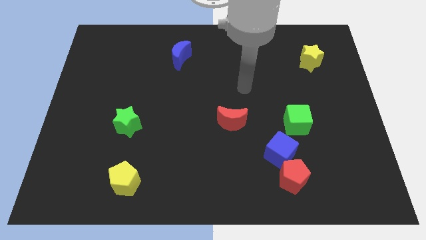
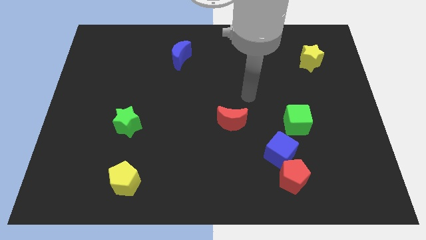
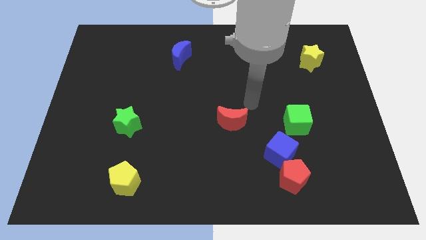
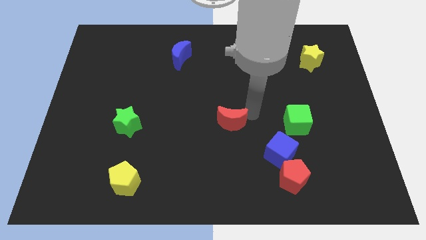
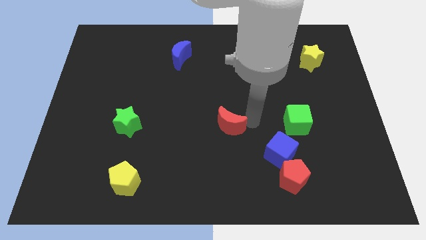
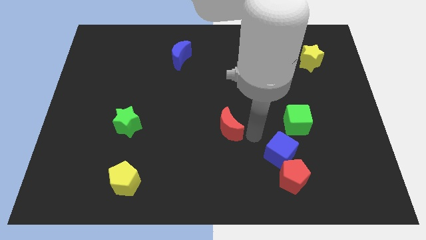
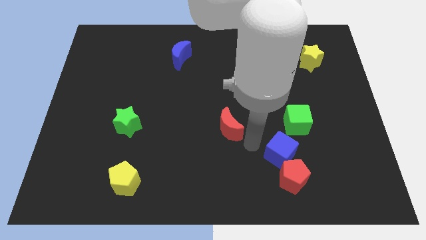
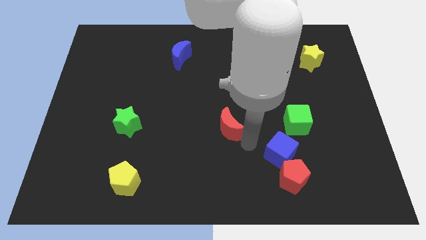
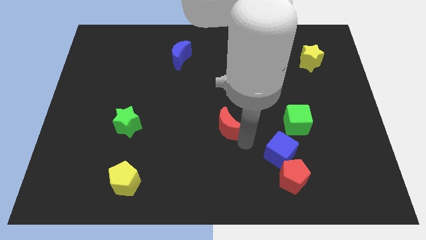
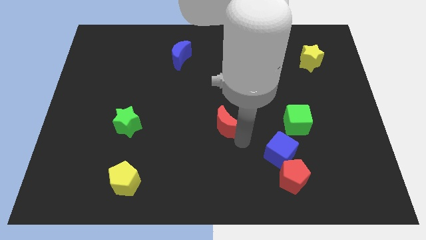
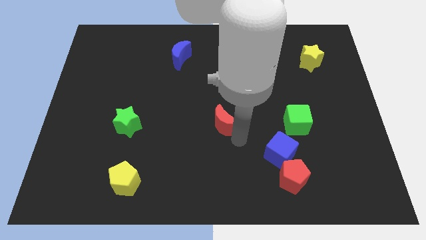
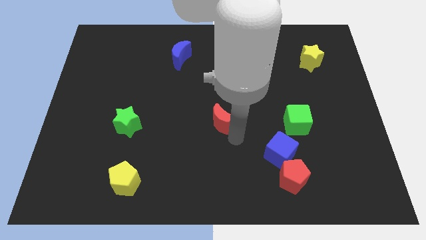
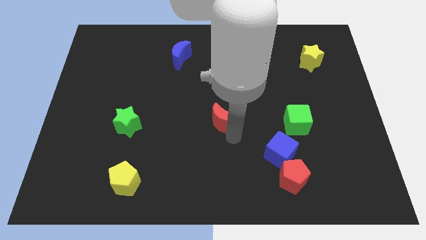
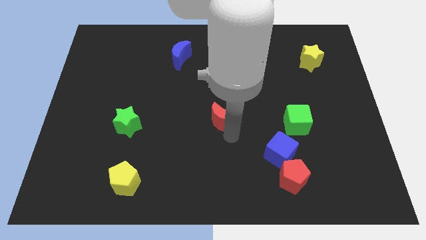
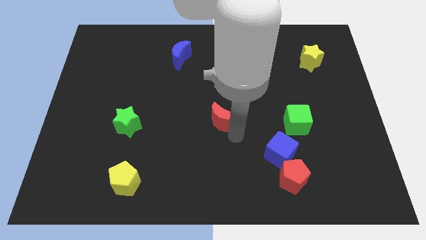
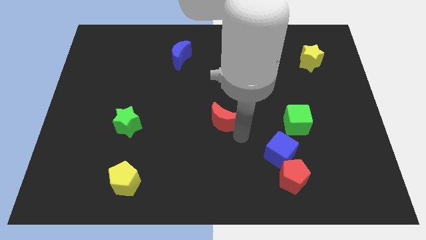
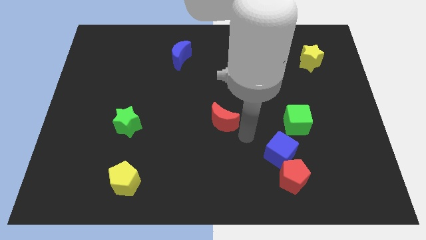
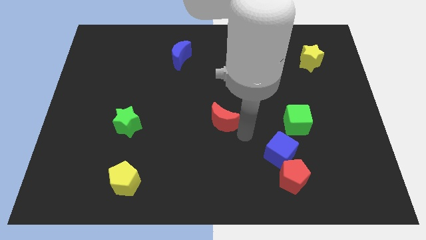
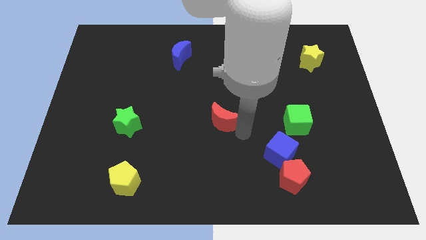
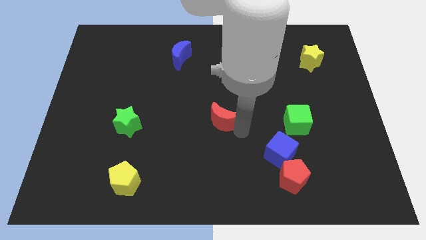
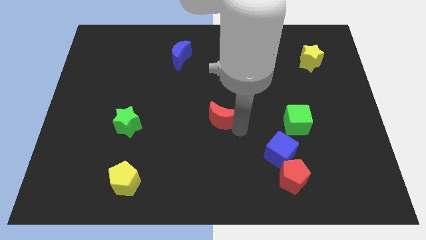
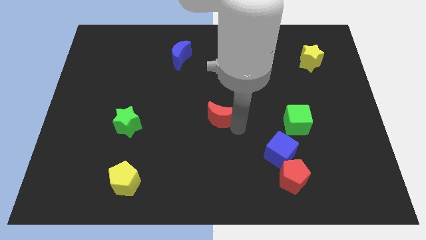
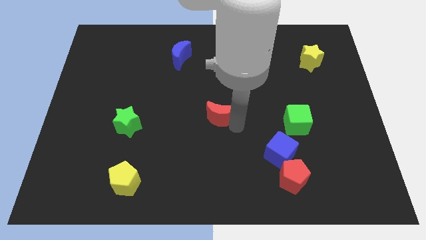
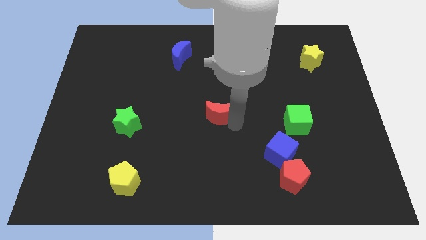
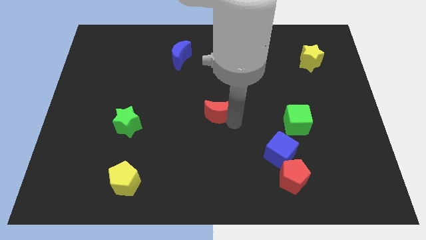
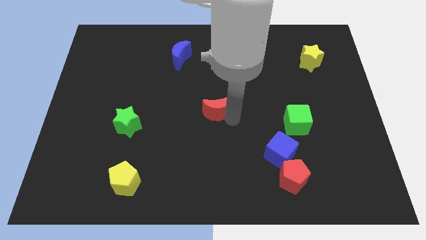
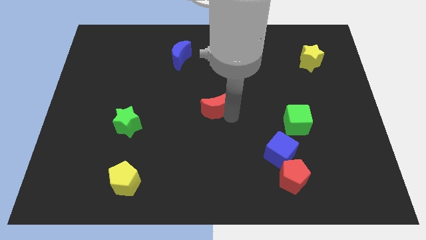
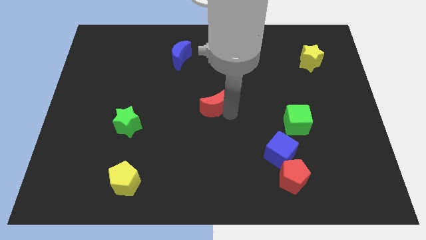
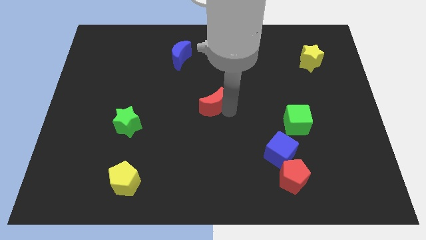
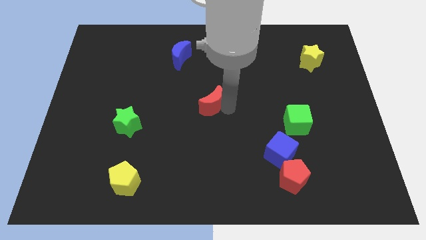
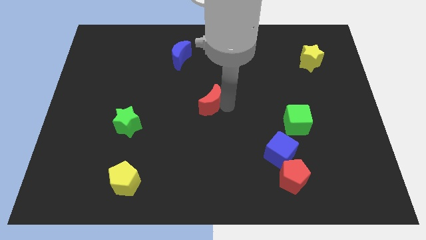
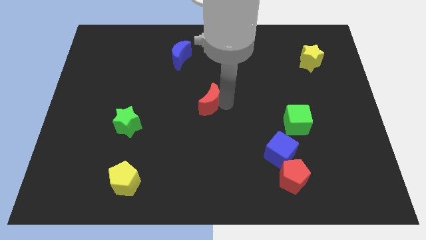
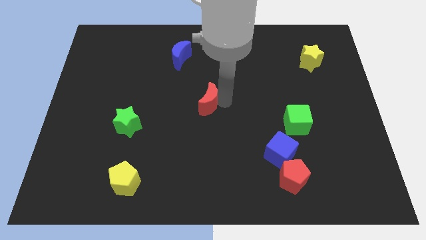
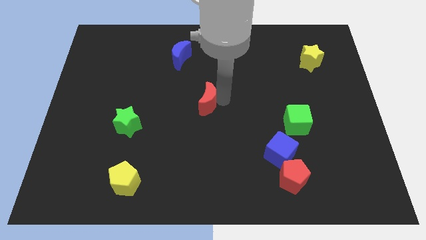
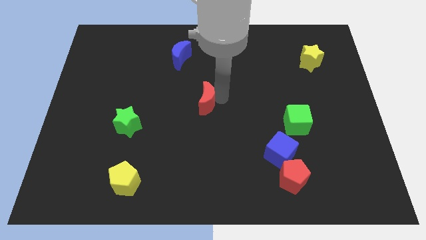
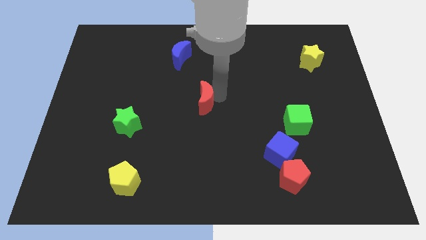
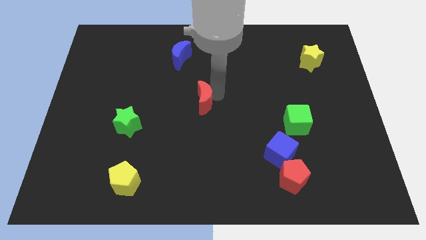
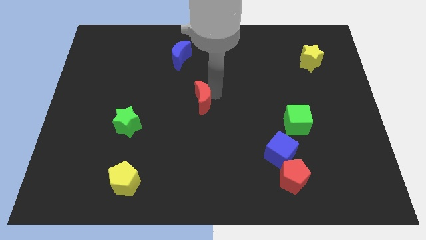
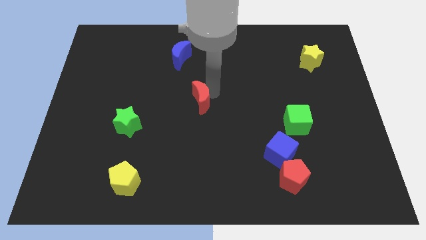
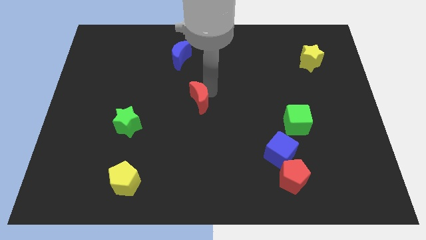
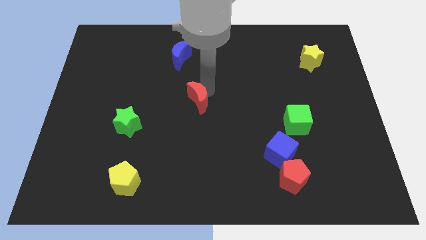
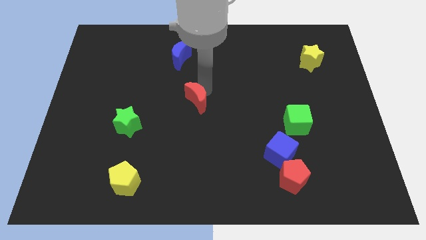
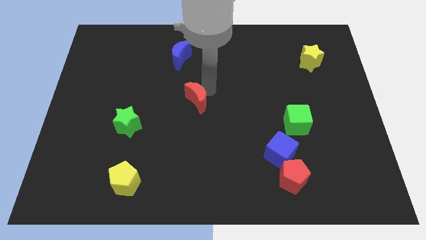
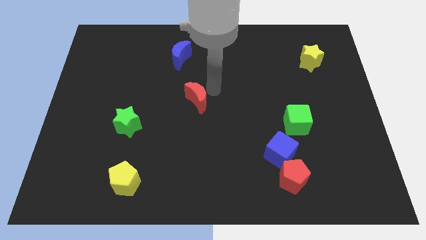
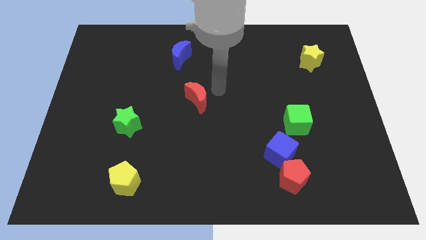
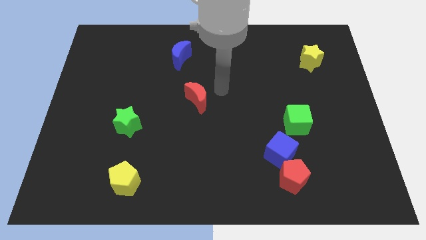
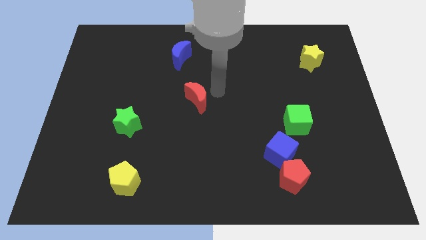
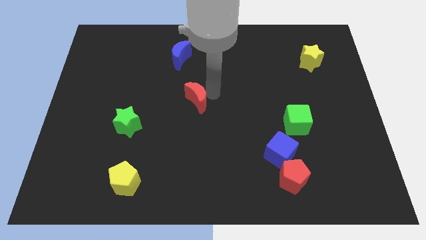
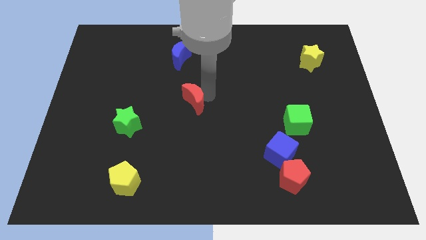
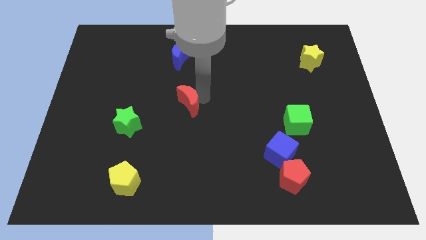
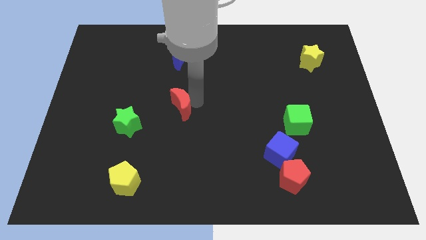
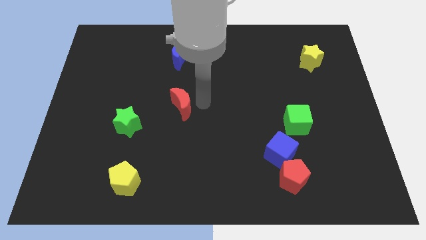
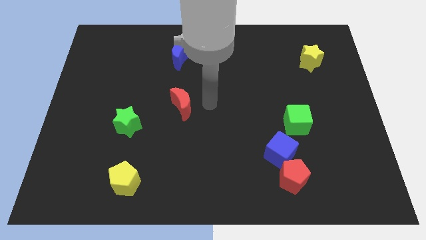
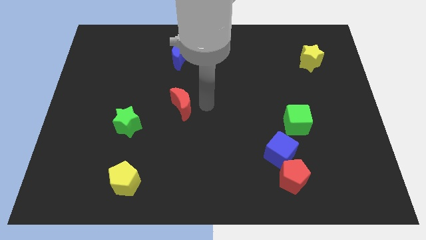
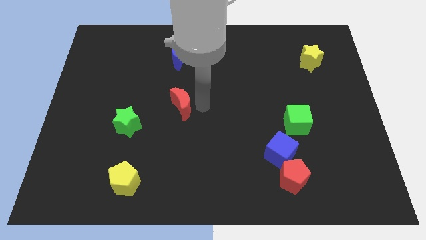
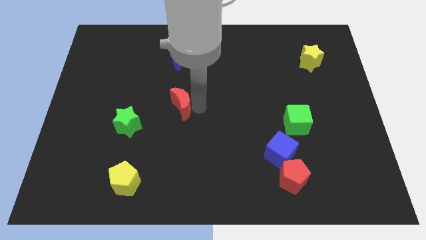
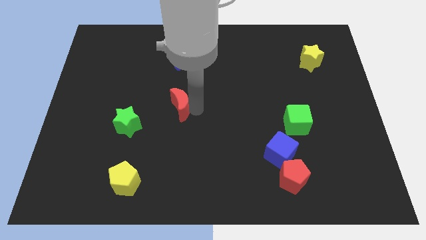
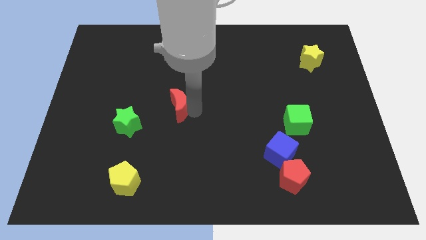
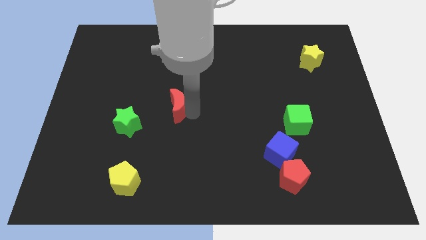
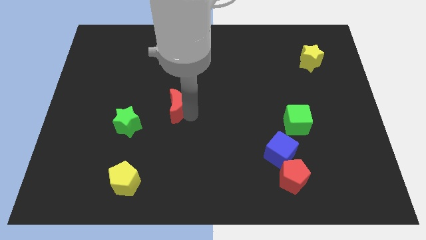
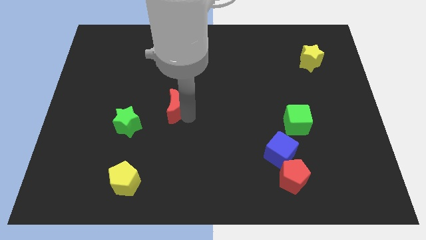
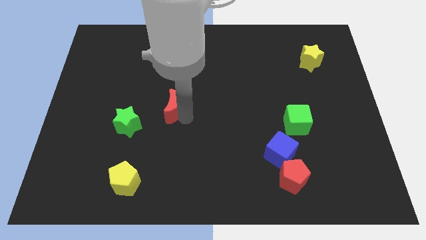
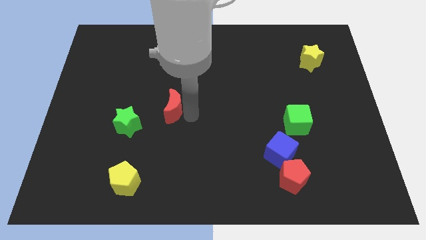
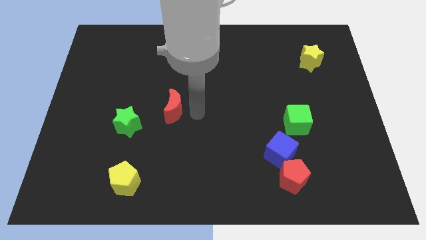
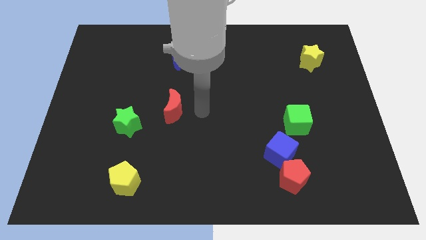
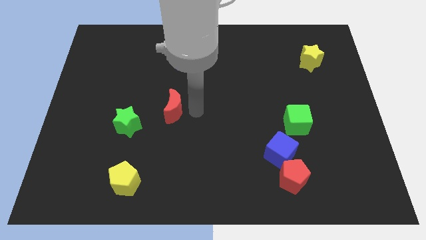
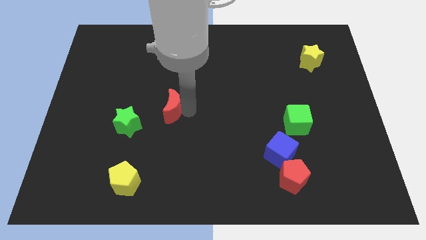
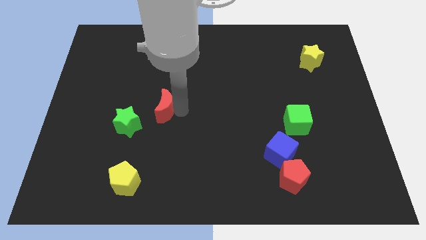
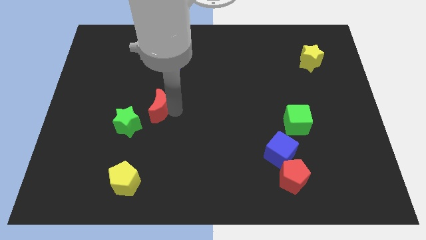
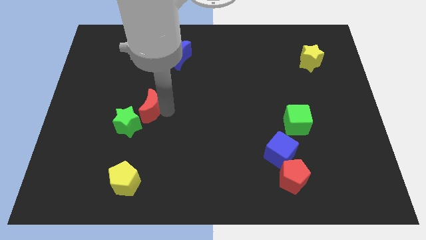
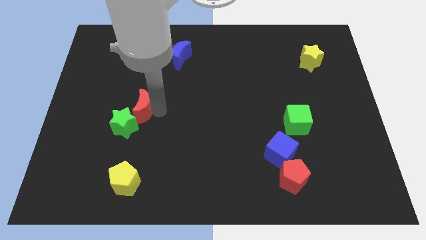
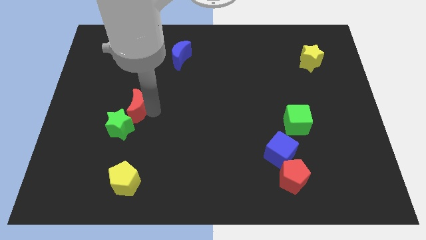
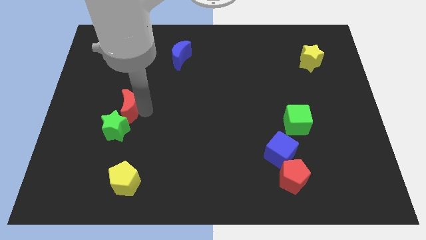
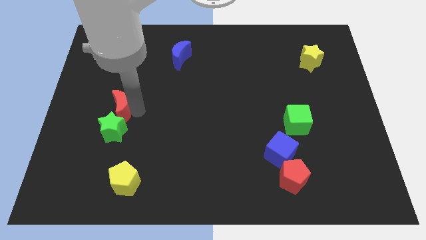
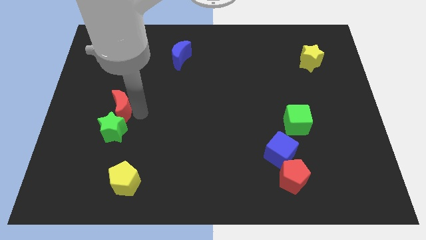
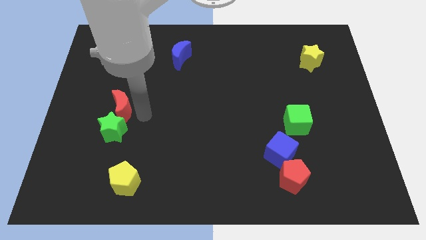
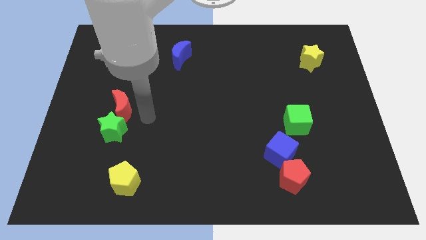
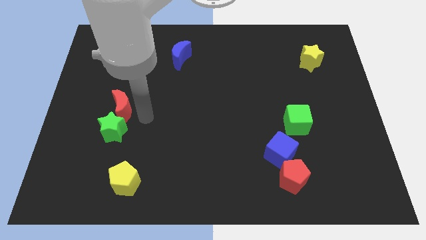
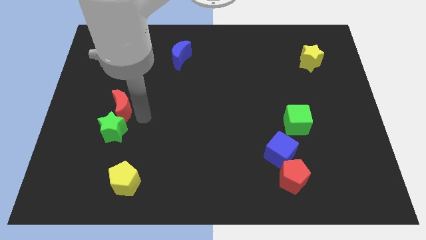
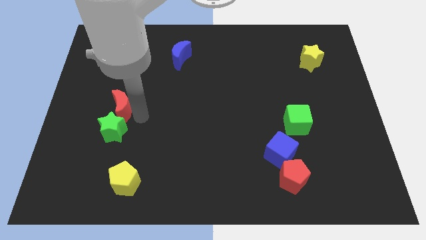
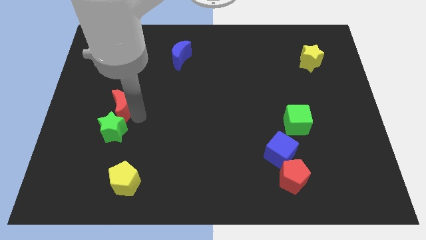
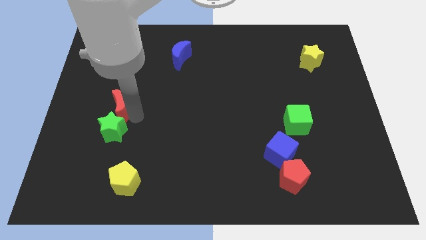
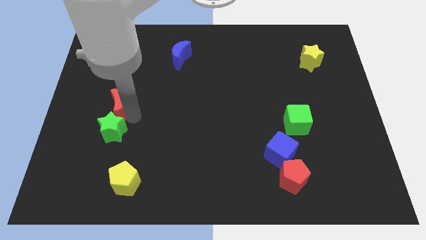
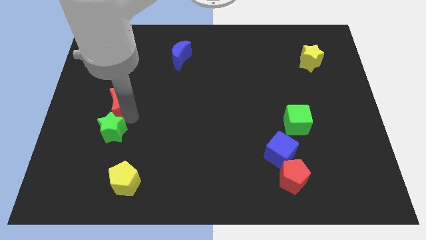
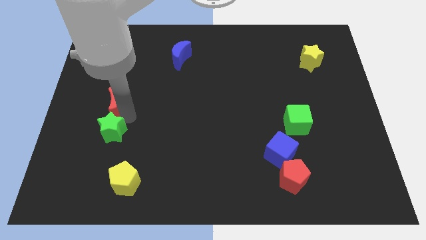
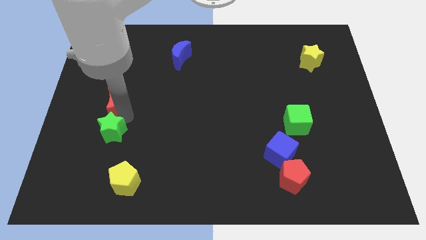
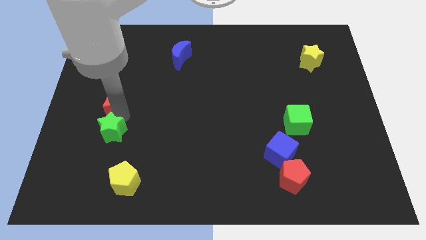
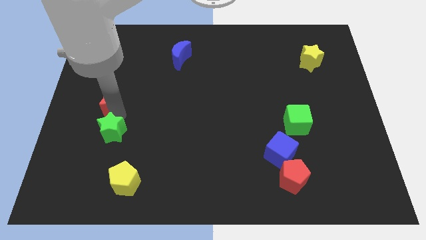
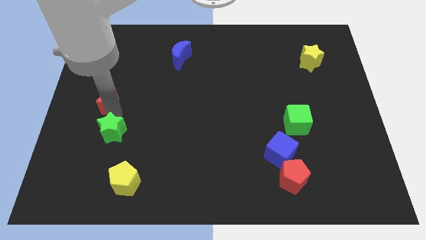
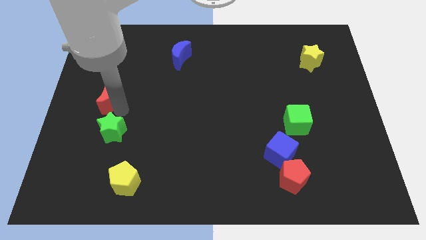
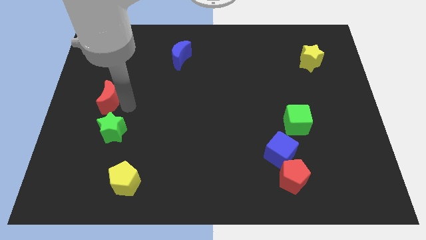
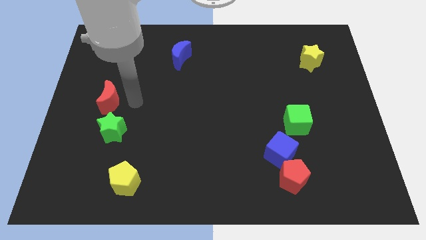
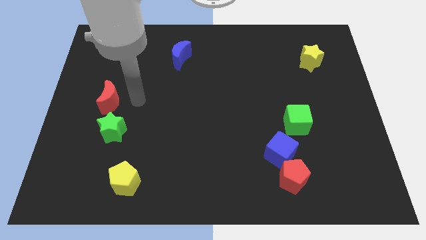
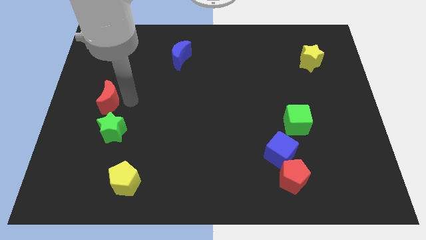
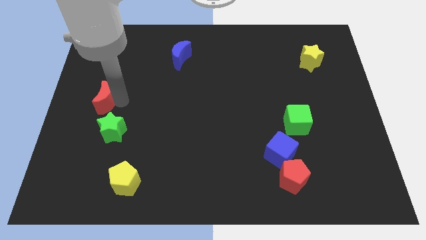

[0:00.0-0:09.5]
push the red moon to the left side of the board
